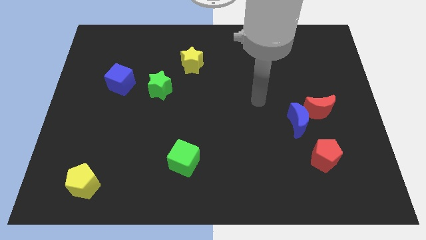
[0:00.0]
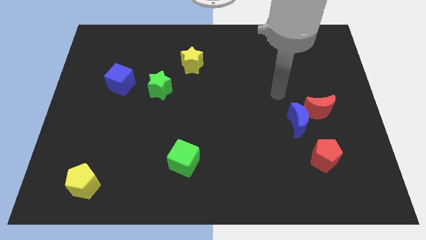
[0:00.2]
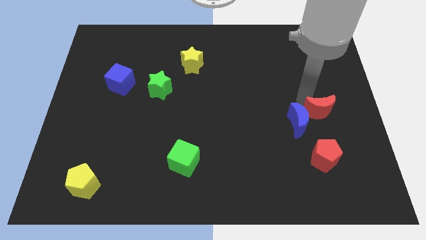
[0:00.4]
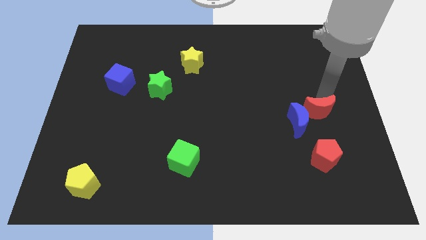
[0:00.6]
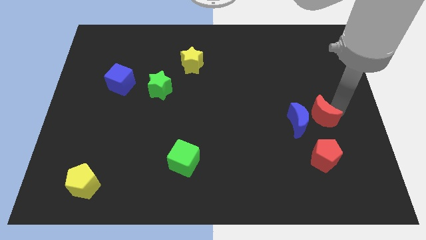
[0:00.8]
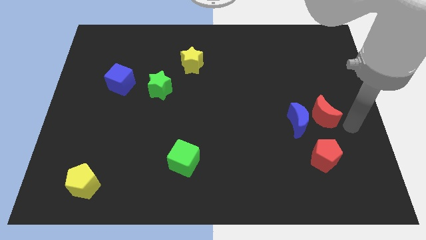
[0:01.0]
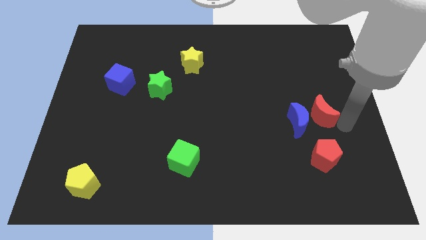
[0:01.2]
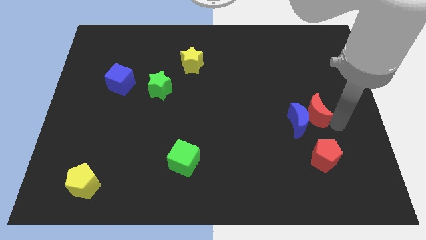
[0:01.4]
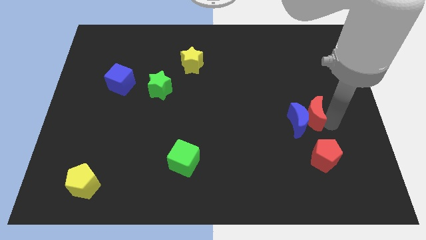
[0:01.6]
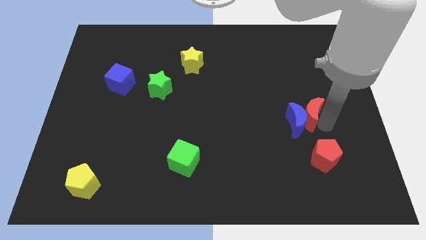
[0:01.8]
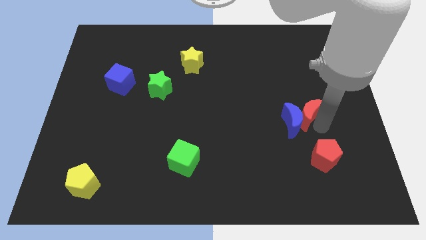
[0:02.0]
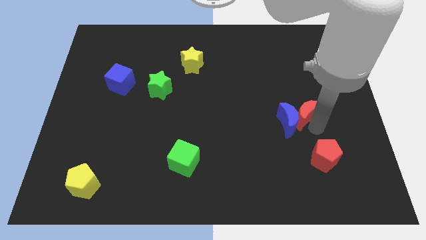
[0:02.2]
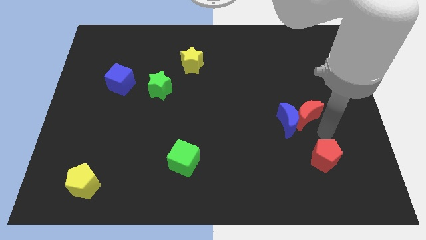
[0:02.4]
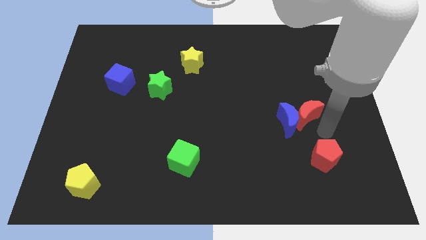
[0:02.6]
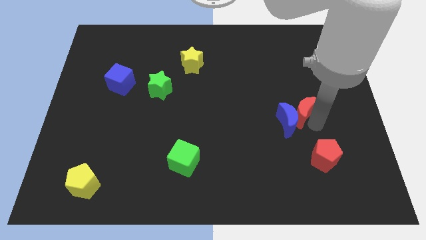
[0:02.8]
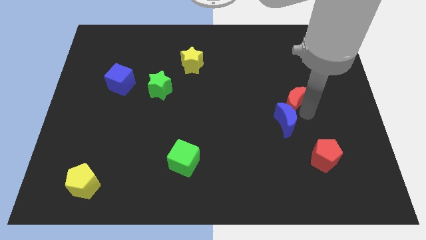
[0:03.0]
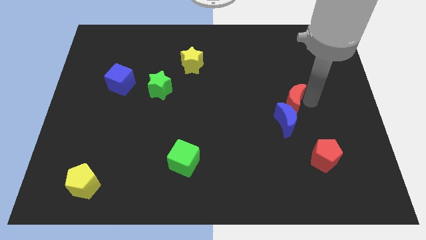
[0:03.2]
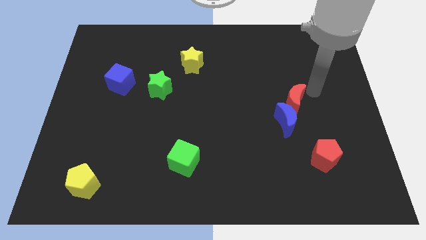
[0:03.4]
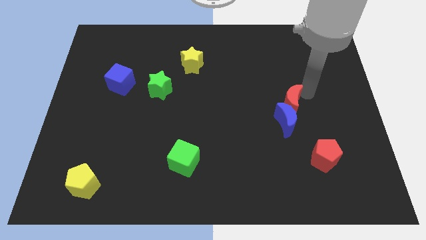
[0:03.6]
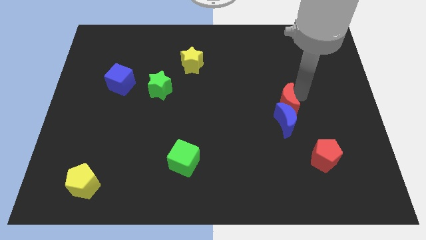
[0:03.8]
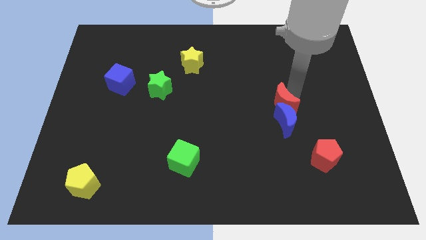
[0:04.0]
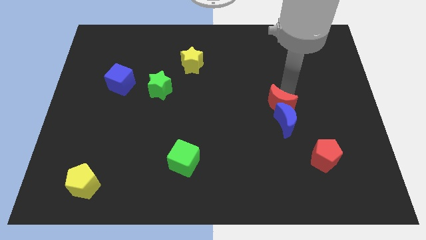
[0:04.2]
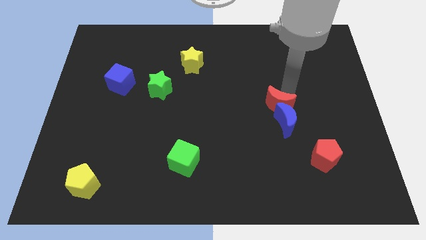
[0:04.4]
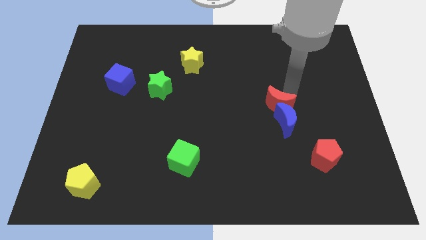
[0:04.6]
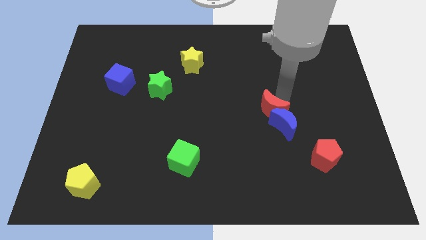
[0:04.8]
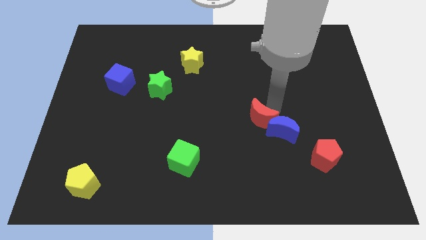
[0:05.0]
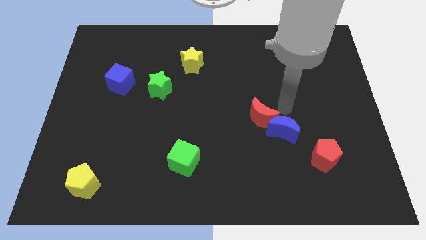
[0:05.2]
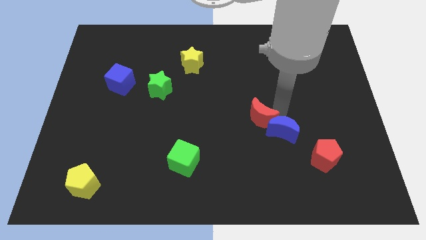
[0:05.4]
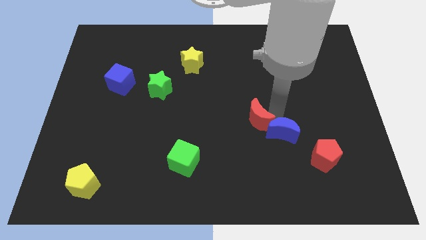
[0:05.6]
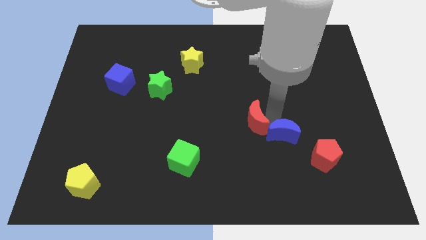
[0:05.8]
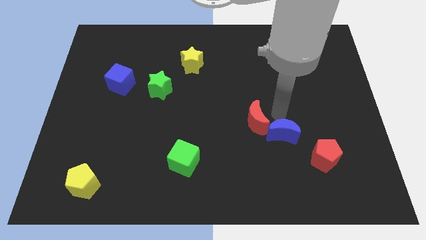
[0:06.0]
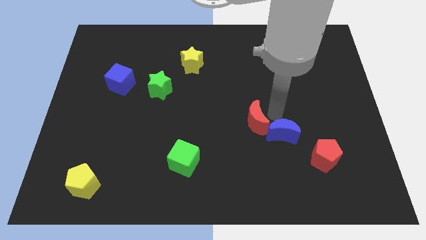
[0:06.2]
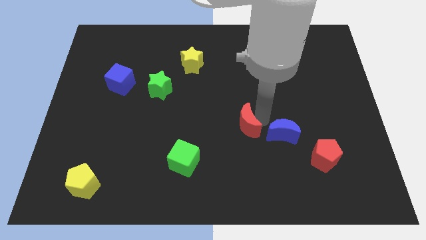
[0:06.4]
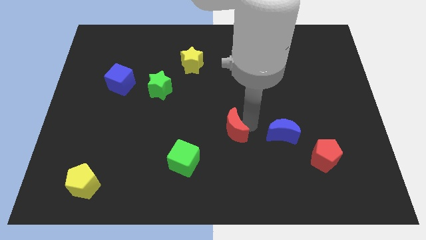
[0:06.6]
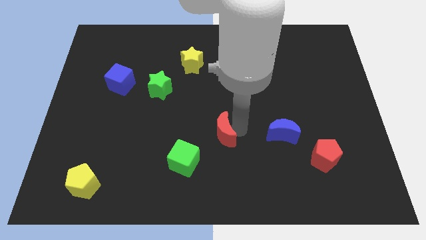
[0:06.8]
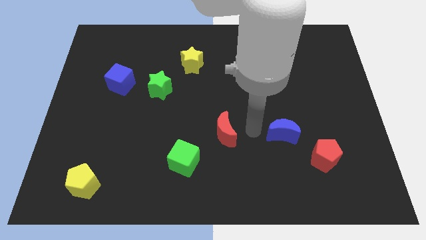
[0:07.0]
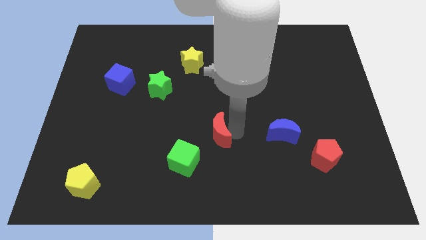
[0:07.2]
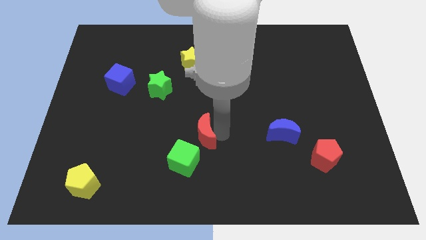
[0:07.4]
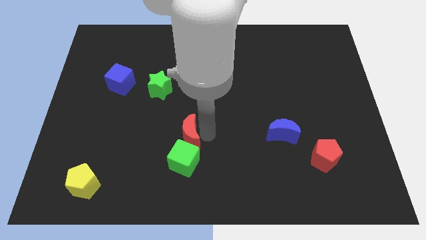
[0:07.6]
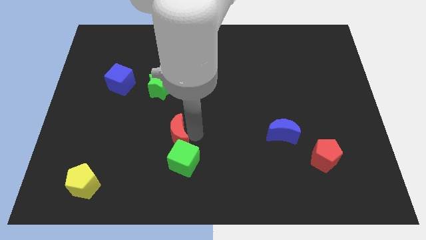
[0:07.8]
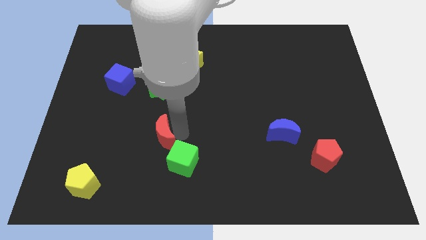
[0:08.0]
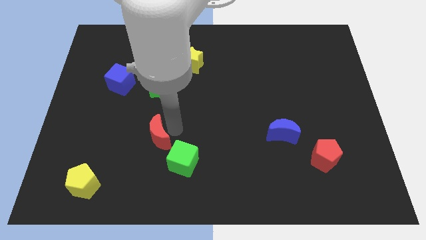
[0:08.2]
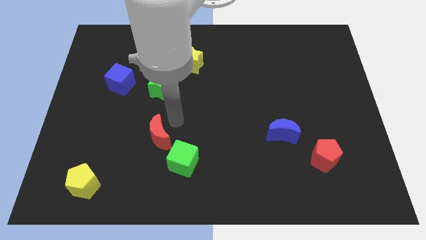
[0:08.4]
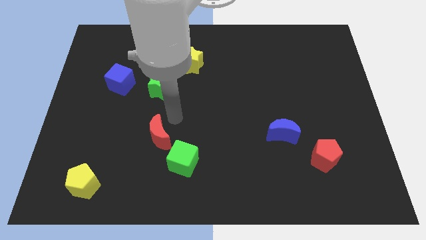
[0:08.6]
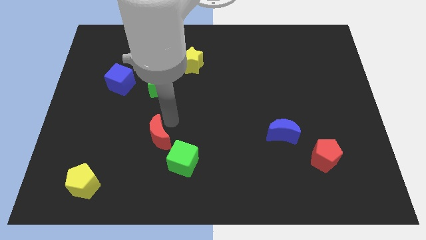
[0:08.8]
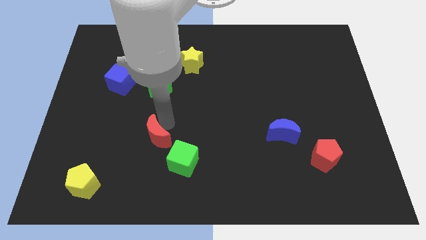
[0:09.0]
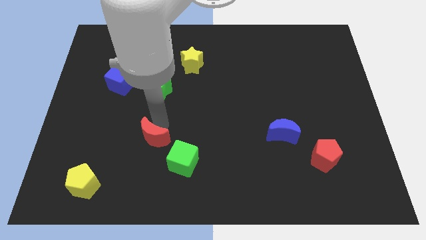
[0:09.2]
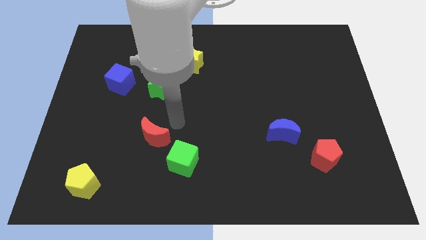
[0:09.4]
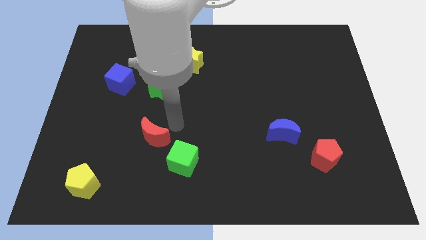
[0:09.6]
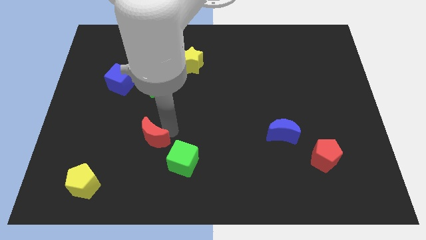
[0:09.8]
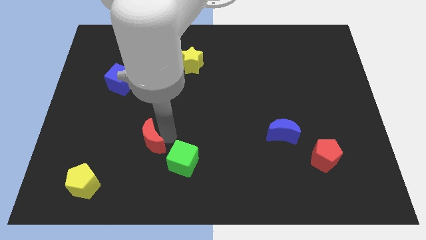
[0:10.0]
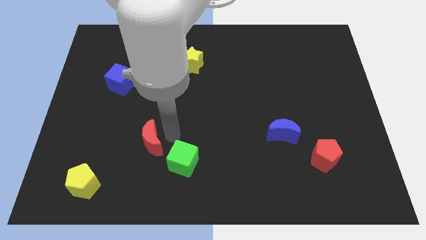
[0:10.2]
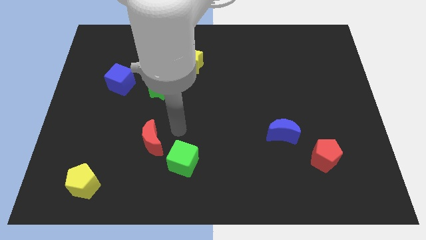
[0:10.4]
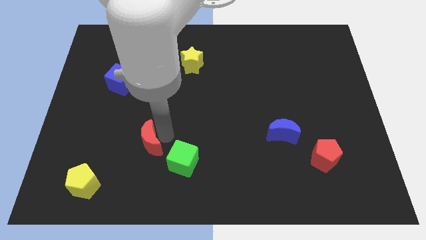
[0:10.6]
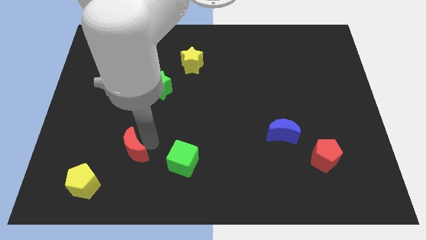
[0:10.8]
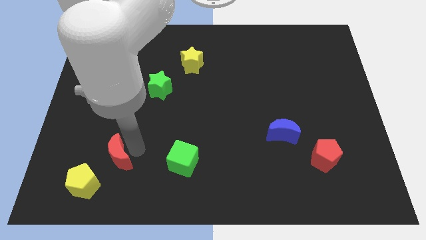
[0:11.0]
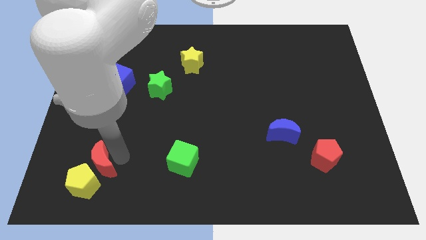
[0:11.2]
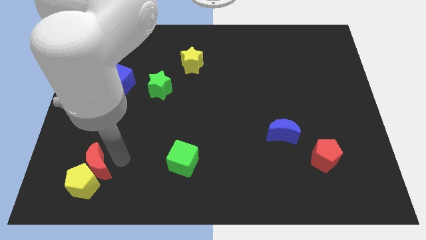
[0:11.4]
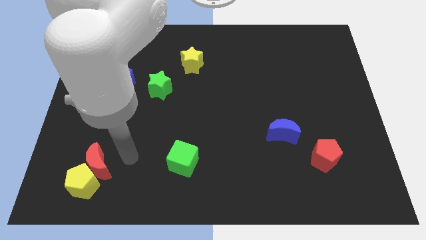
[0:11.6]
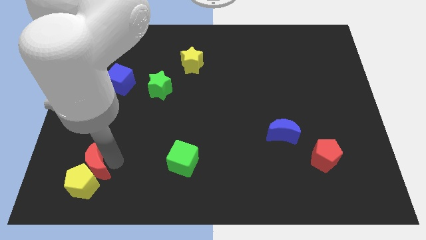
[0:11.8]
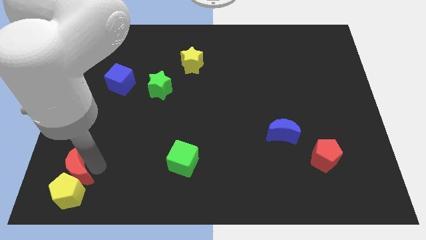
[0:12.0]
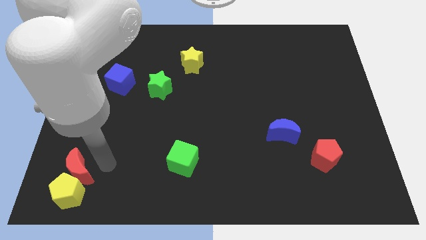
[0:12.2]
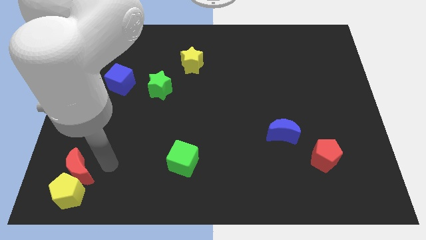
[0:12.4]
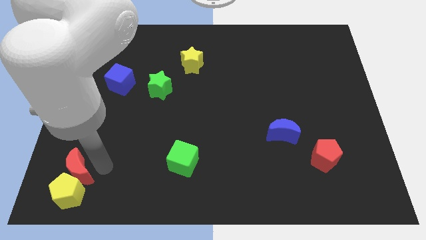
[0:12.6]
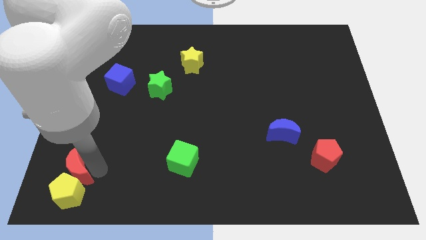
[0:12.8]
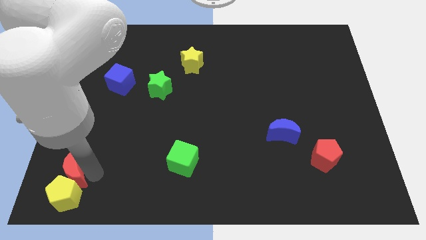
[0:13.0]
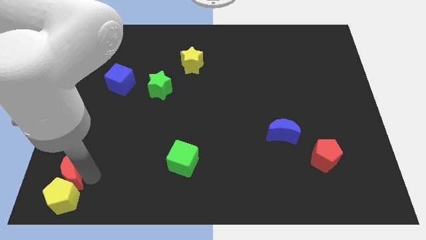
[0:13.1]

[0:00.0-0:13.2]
push the red moon to the lower left corner
